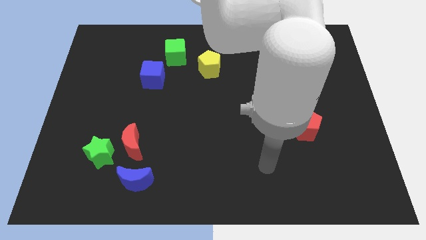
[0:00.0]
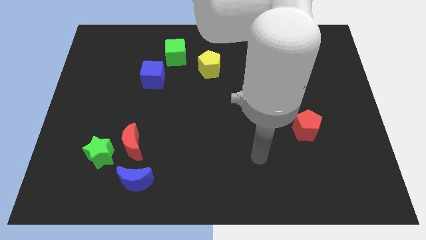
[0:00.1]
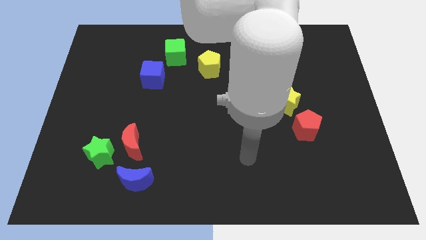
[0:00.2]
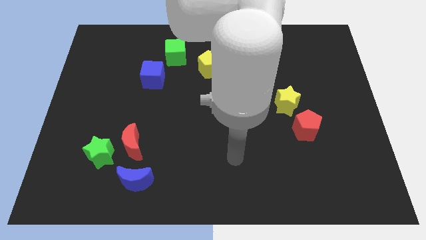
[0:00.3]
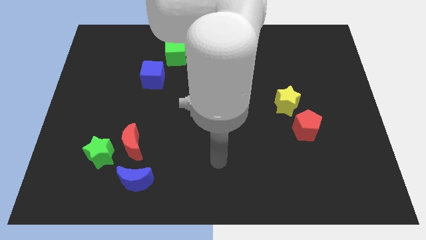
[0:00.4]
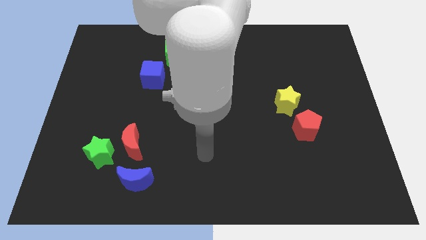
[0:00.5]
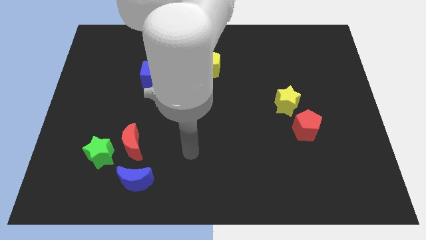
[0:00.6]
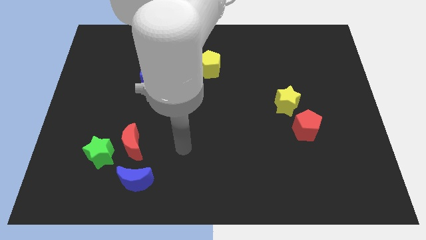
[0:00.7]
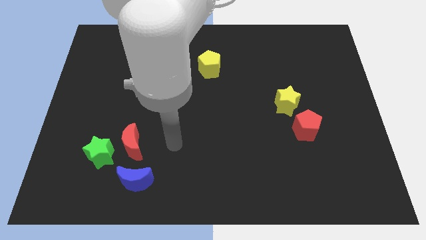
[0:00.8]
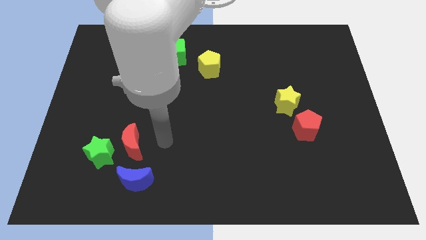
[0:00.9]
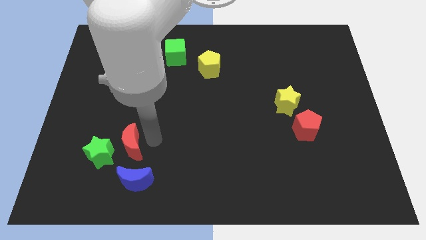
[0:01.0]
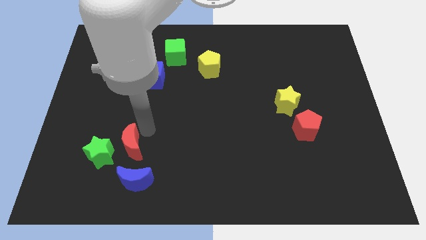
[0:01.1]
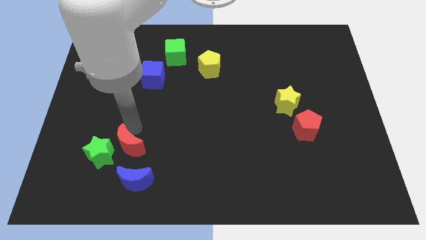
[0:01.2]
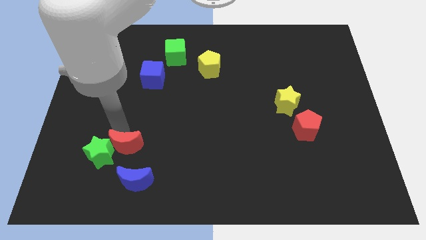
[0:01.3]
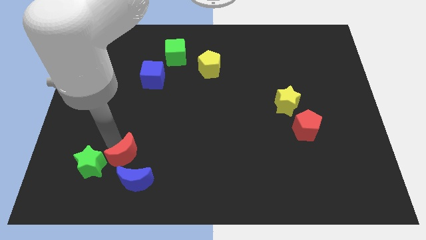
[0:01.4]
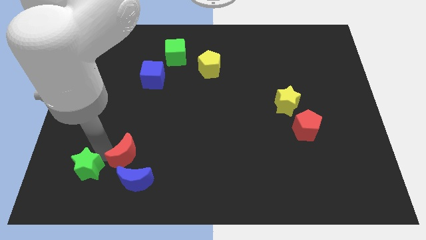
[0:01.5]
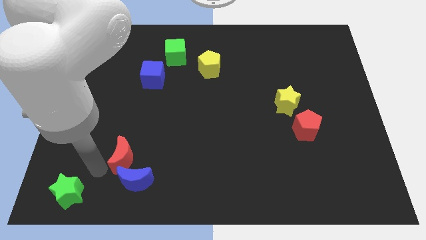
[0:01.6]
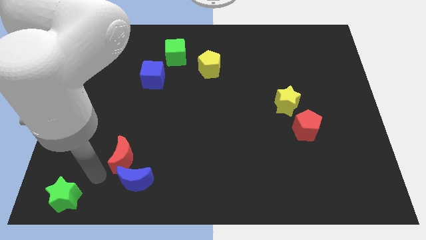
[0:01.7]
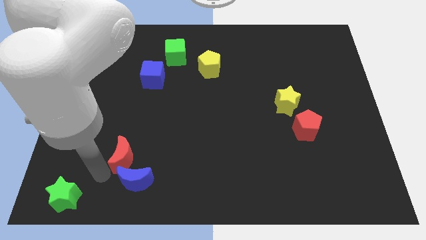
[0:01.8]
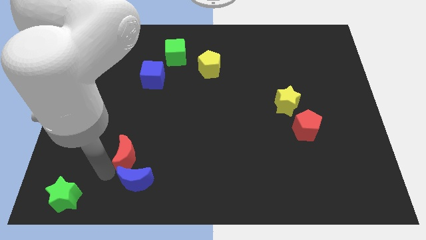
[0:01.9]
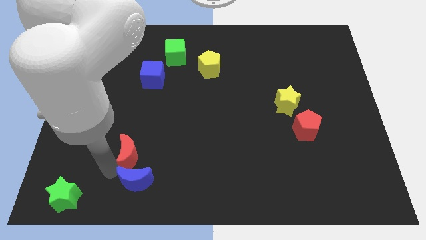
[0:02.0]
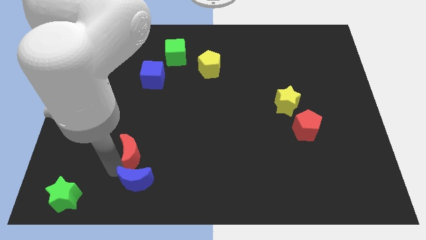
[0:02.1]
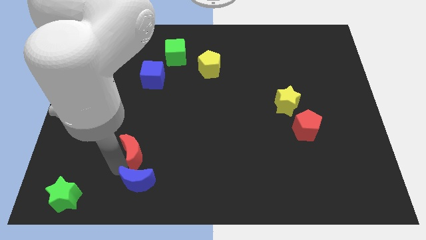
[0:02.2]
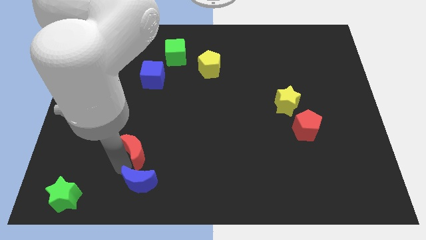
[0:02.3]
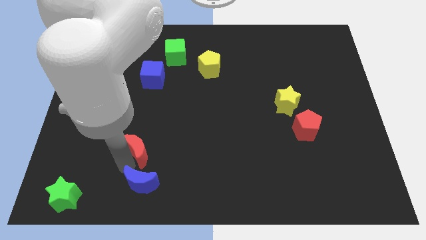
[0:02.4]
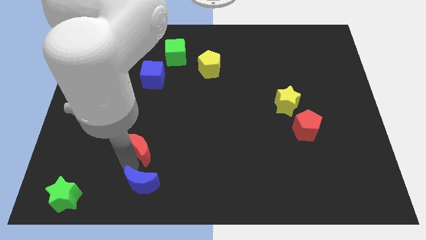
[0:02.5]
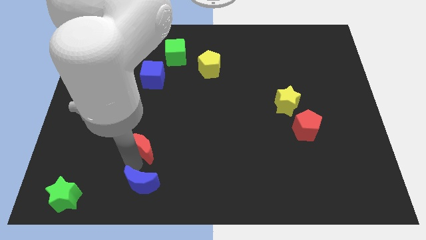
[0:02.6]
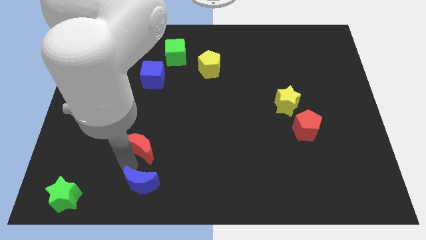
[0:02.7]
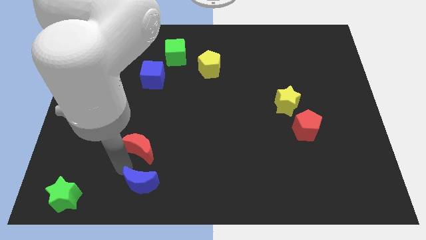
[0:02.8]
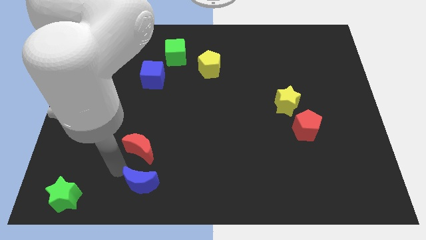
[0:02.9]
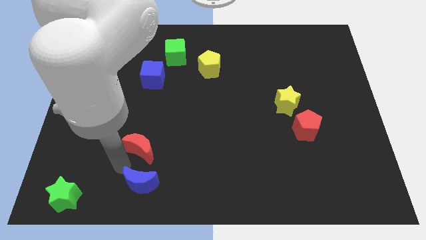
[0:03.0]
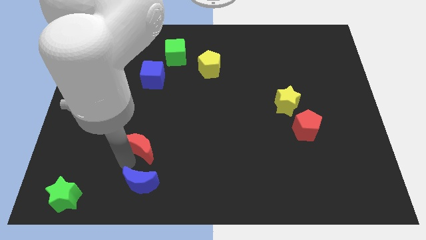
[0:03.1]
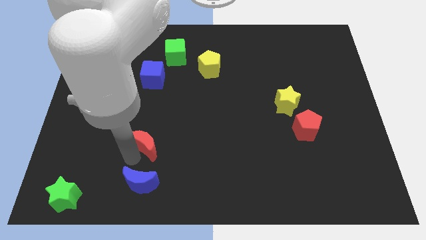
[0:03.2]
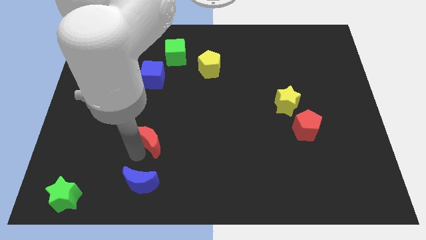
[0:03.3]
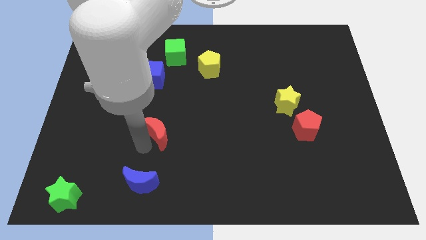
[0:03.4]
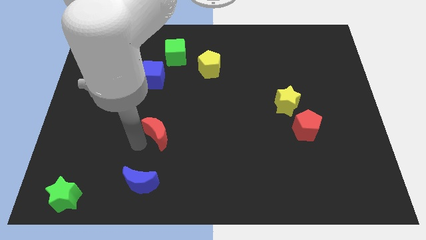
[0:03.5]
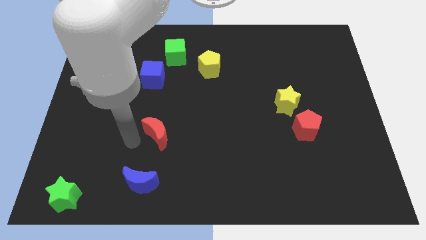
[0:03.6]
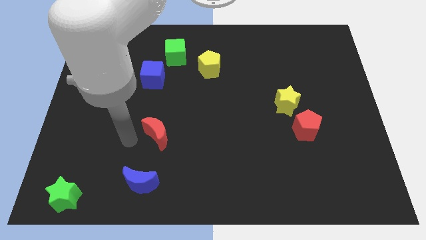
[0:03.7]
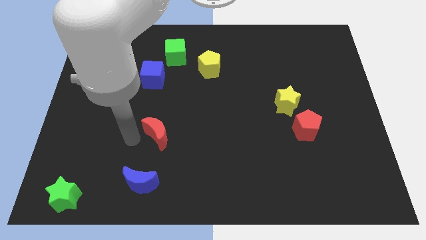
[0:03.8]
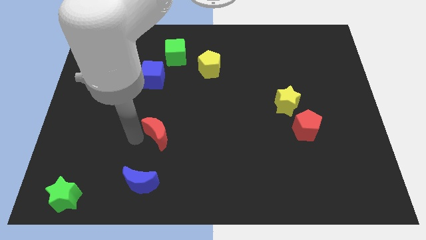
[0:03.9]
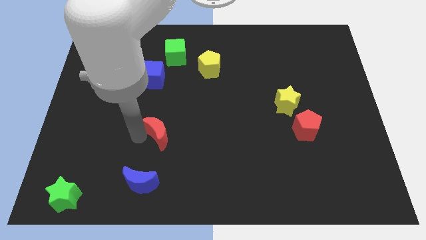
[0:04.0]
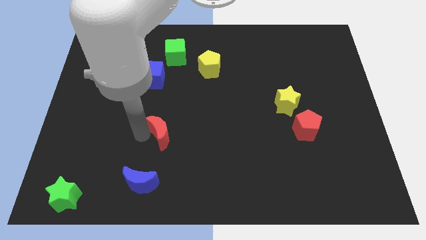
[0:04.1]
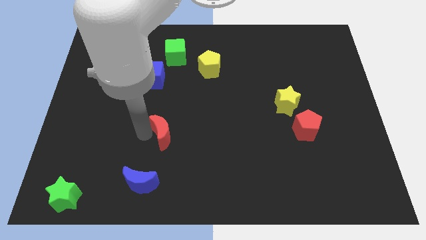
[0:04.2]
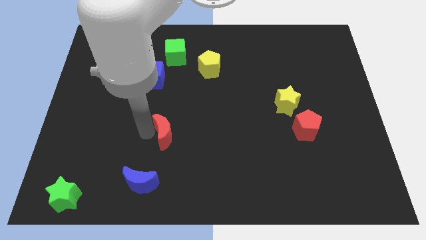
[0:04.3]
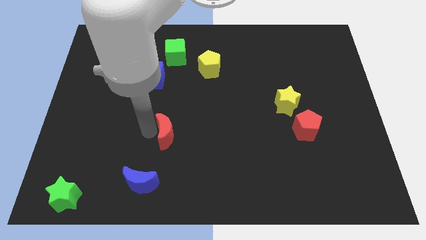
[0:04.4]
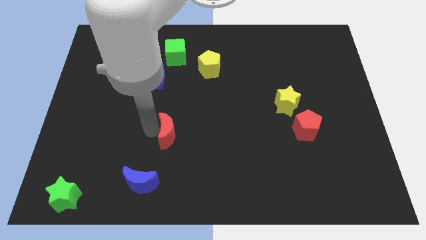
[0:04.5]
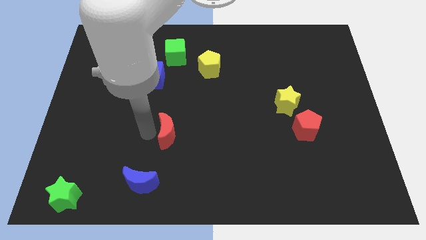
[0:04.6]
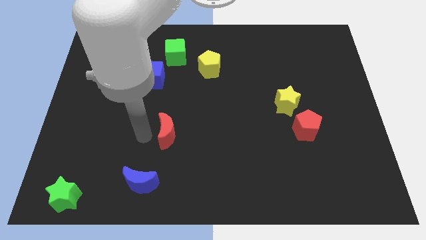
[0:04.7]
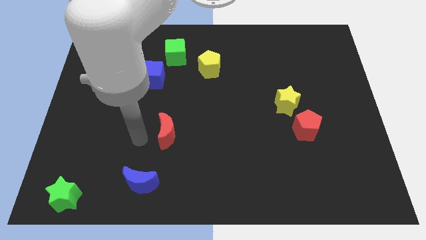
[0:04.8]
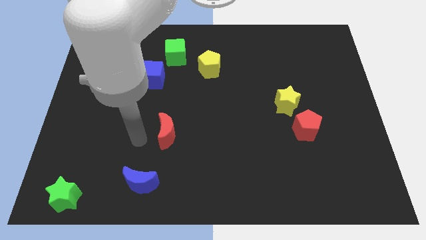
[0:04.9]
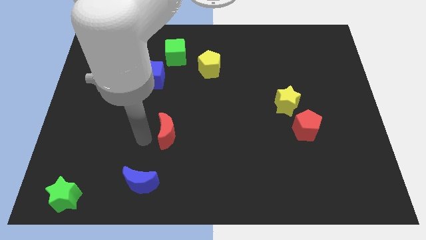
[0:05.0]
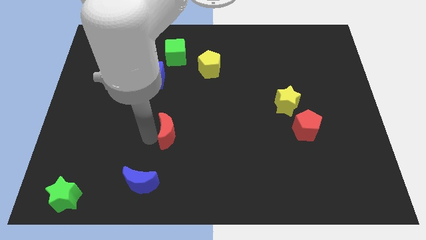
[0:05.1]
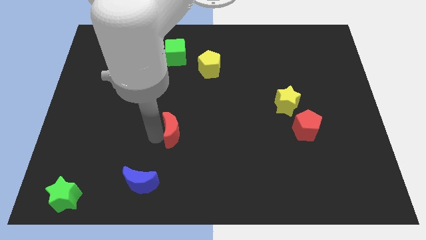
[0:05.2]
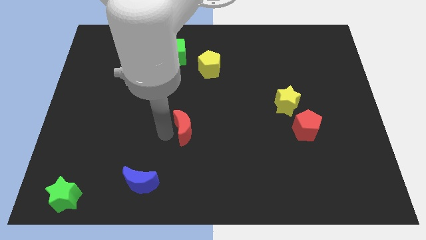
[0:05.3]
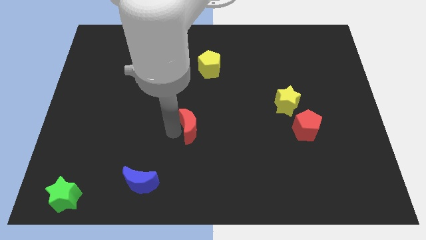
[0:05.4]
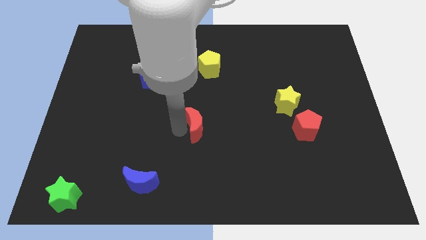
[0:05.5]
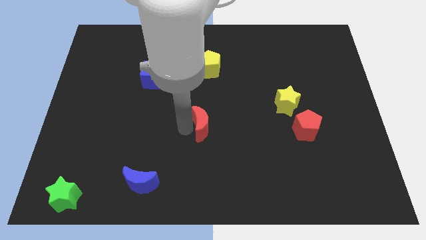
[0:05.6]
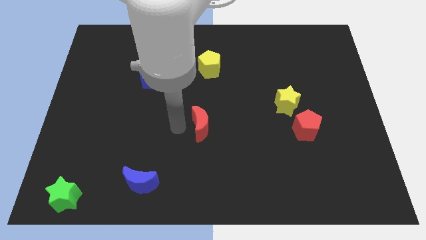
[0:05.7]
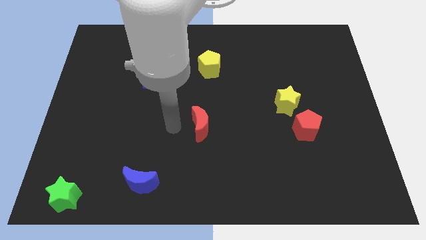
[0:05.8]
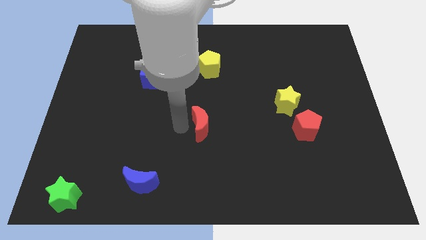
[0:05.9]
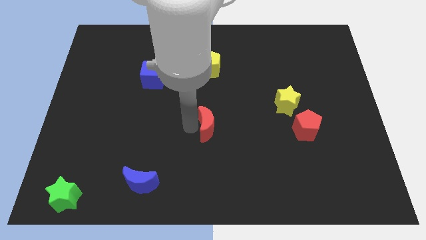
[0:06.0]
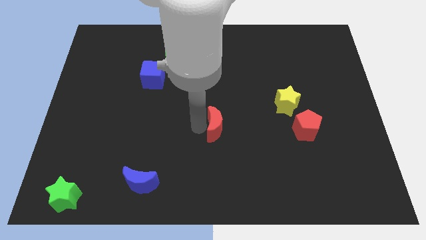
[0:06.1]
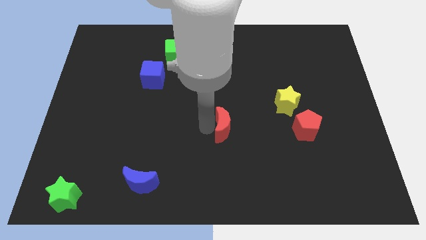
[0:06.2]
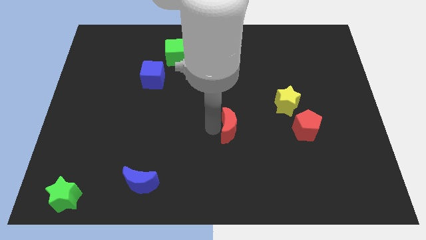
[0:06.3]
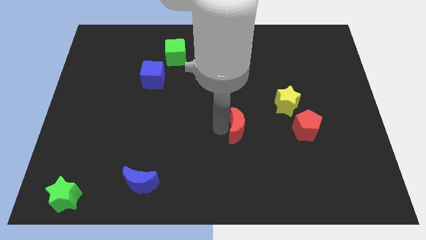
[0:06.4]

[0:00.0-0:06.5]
move the red moon to the left side of the red pentagon
